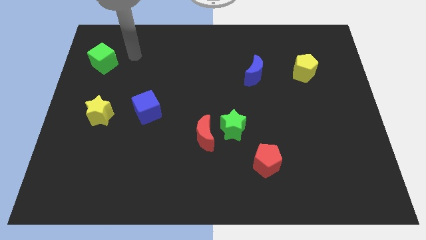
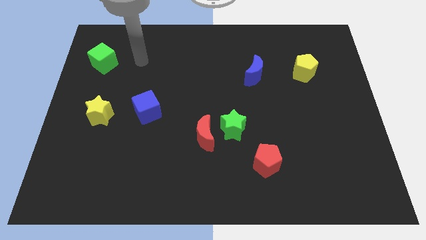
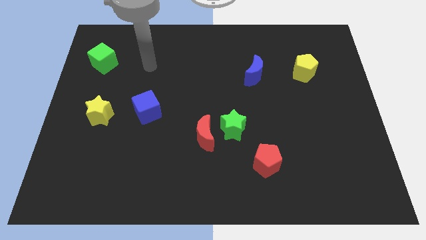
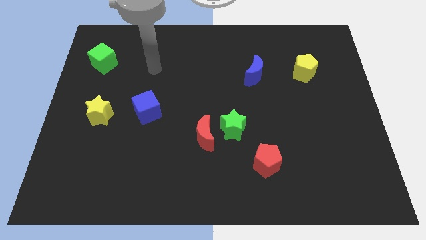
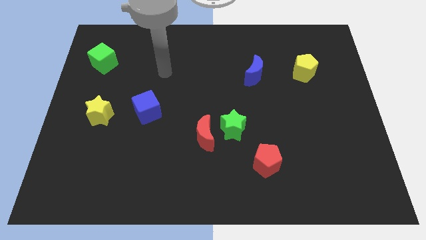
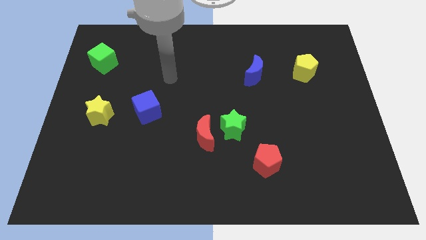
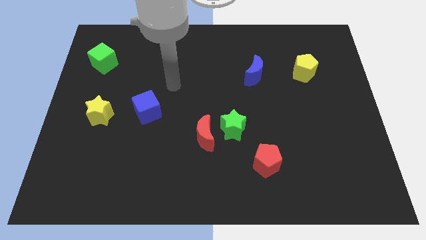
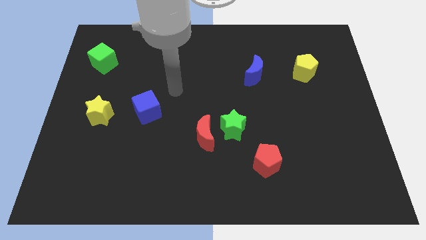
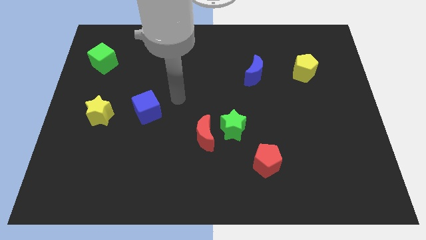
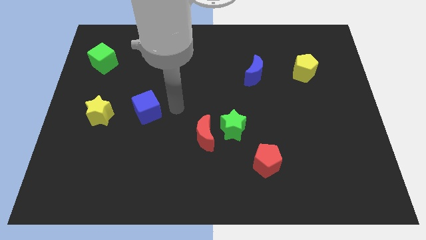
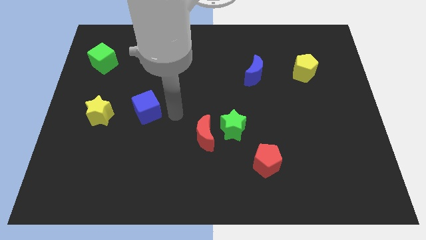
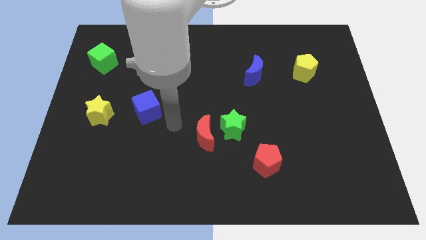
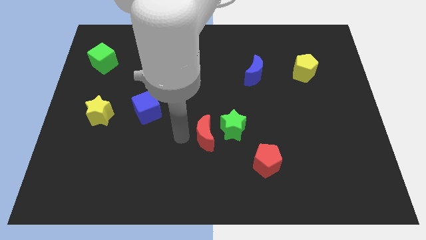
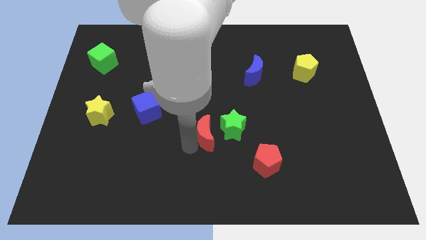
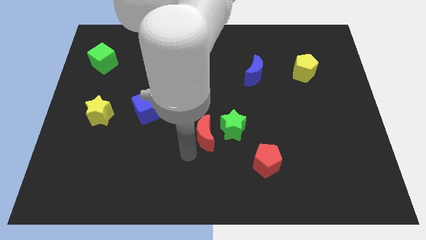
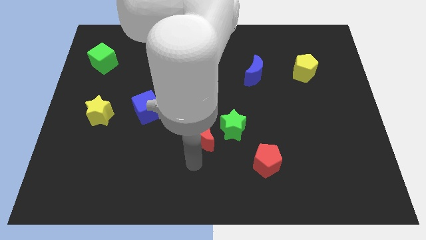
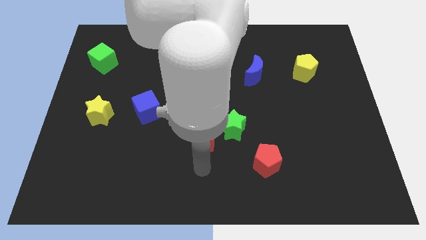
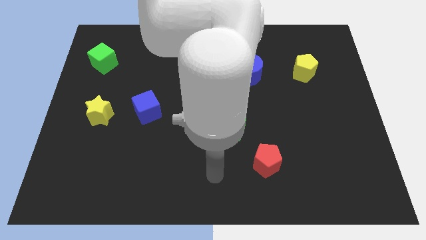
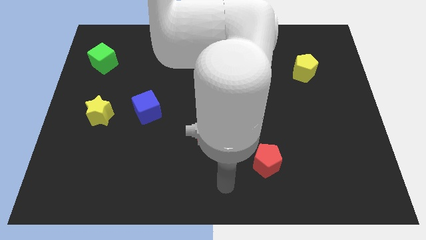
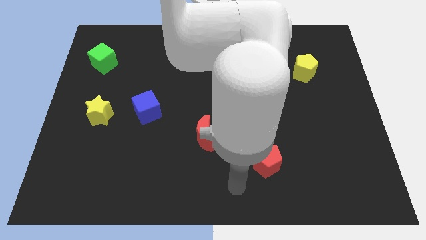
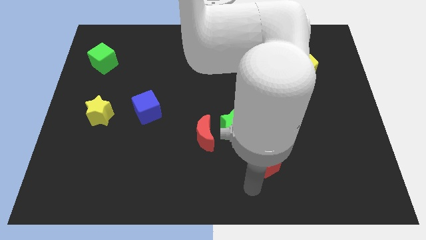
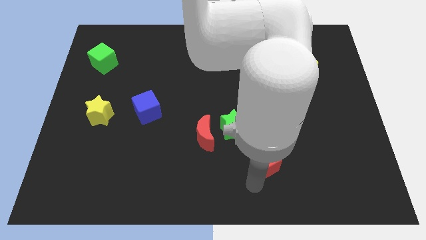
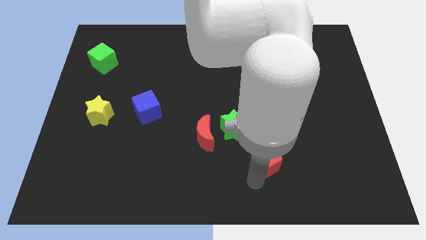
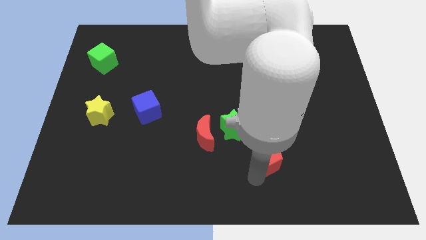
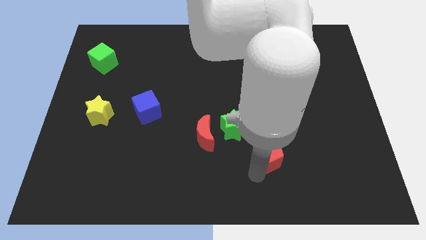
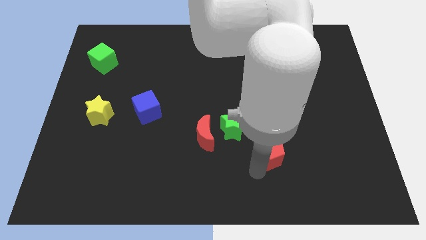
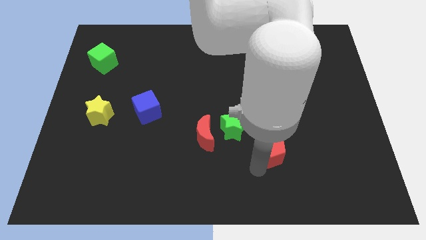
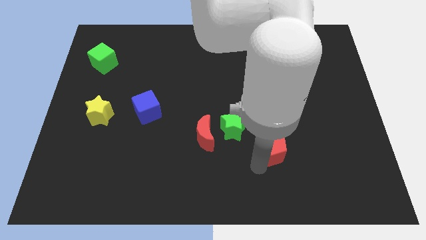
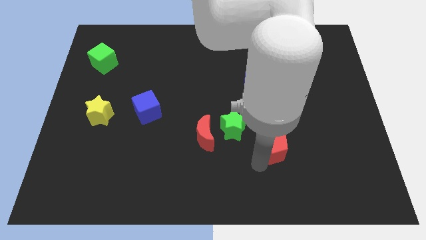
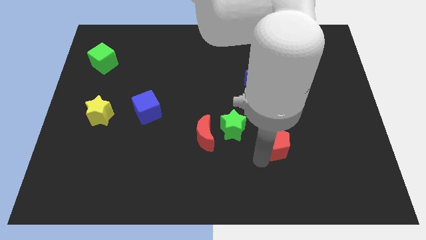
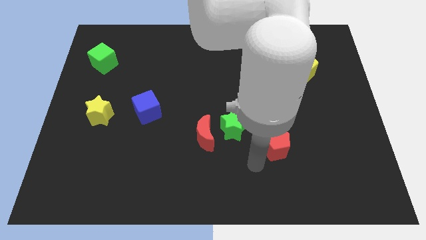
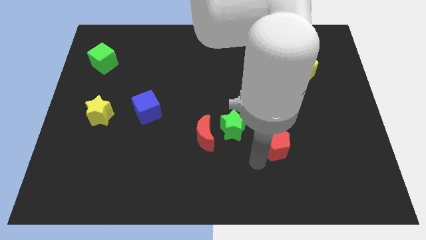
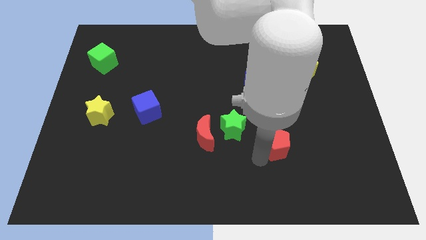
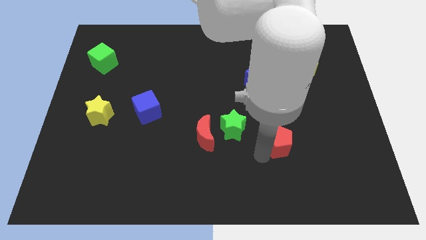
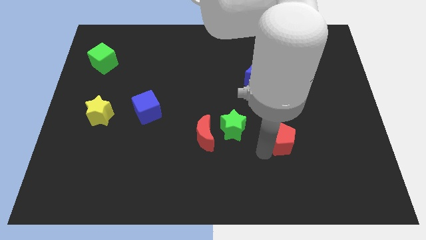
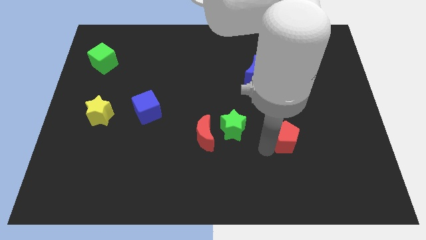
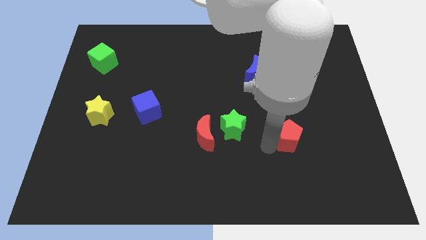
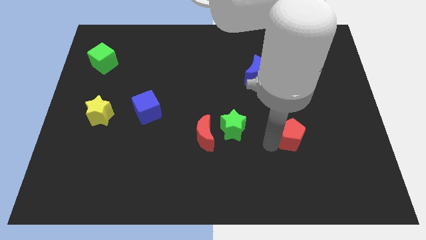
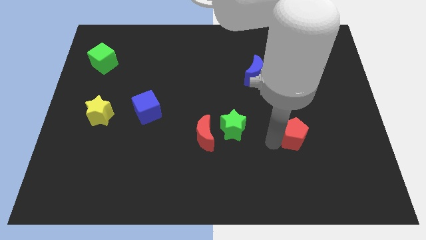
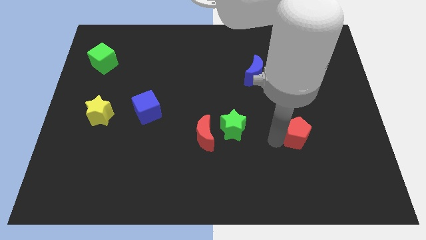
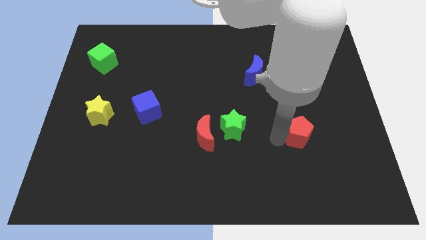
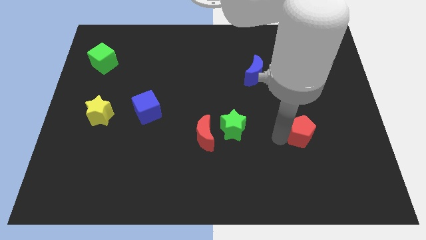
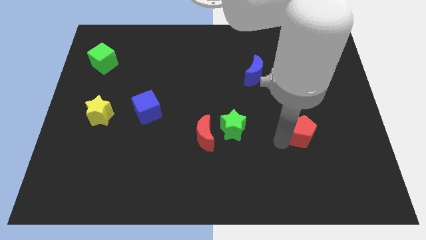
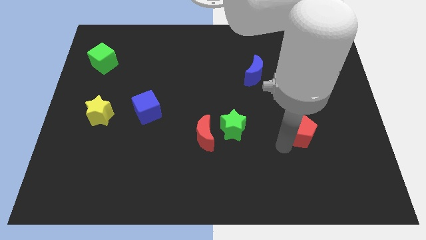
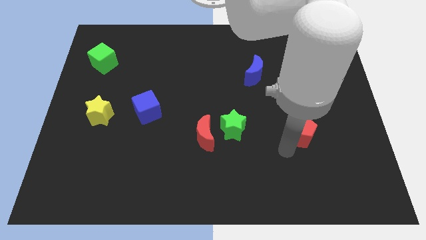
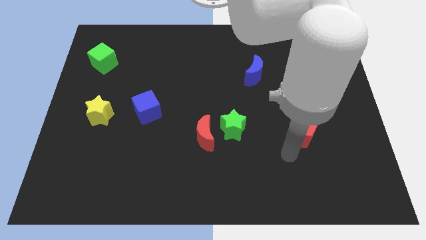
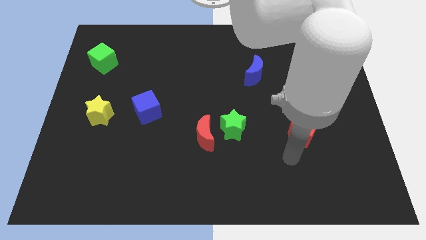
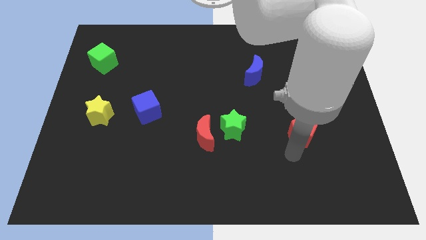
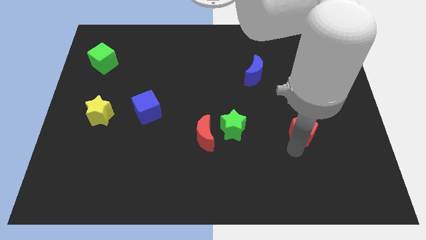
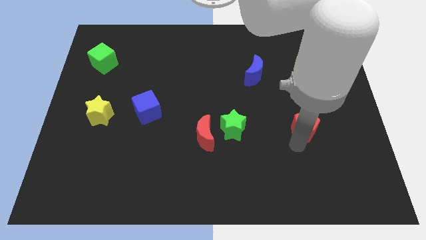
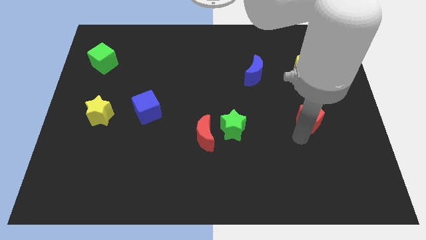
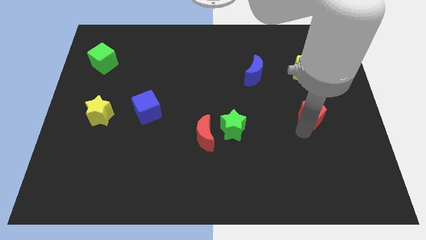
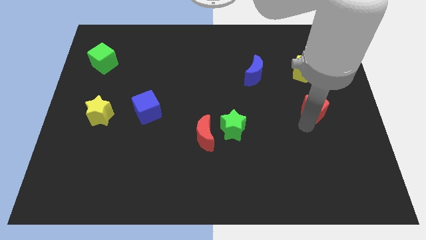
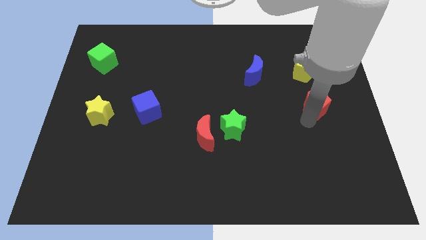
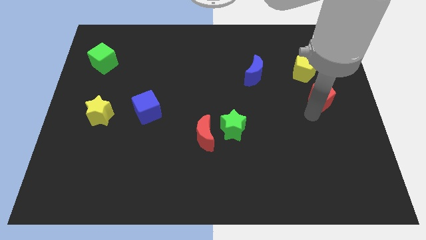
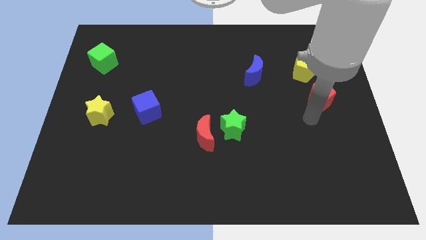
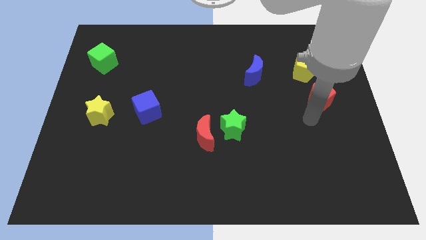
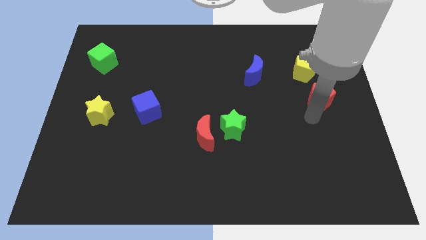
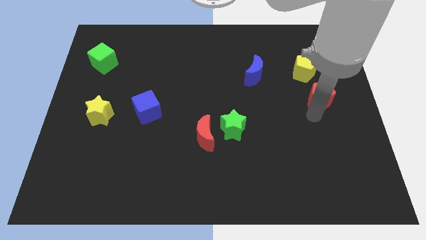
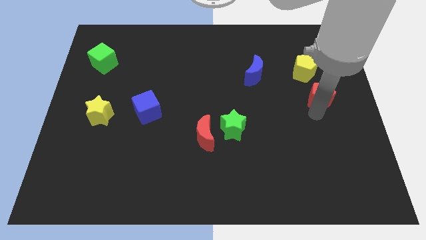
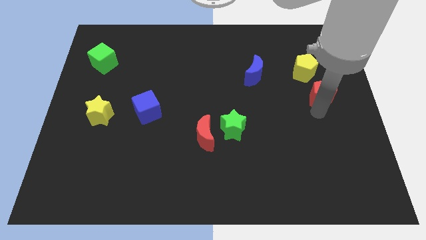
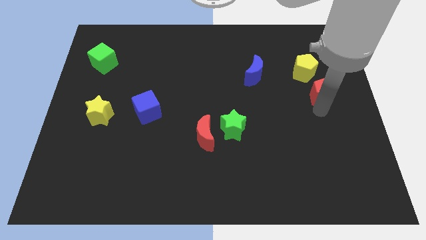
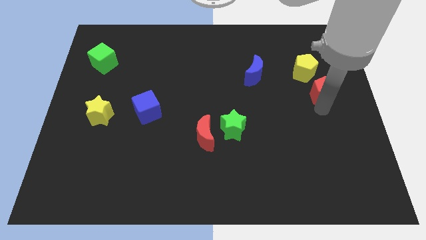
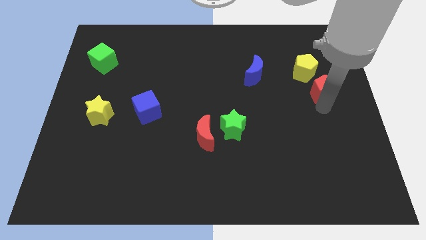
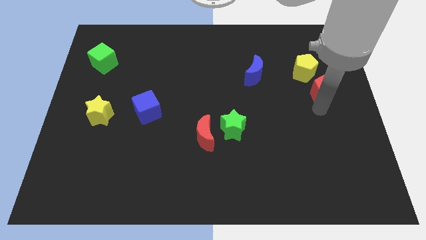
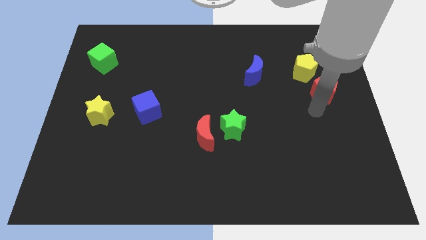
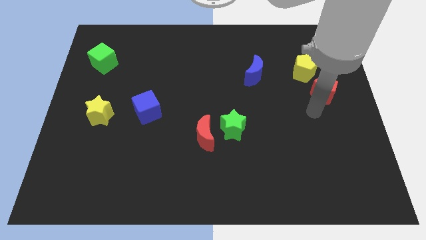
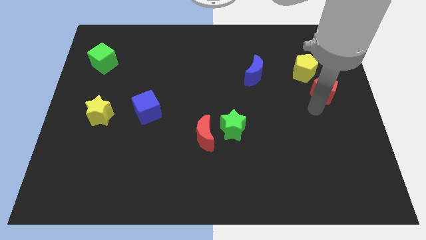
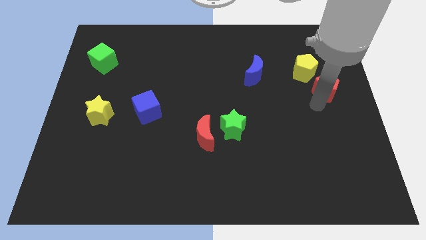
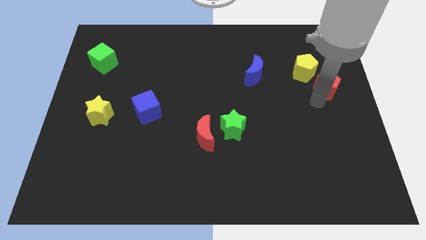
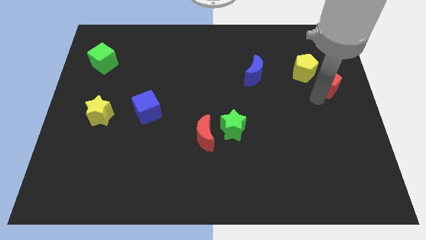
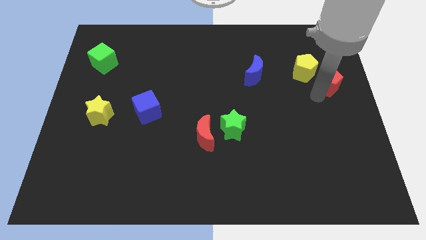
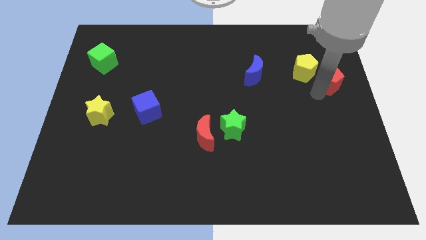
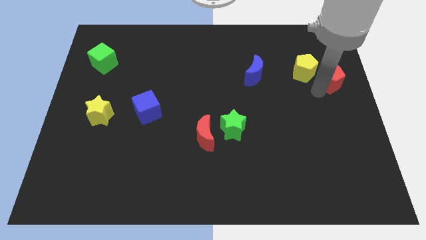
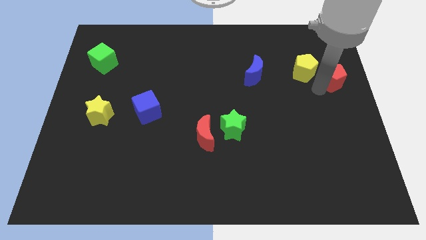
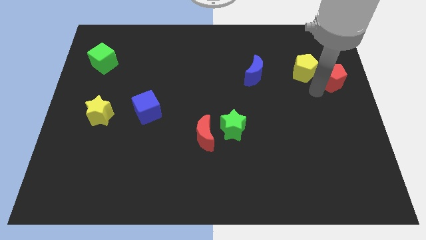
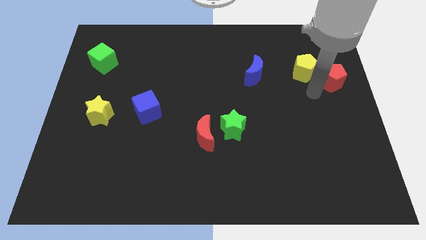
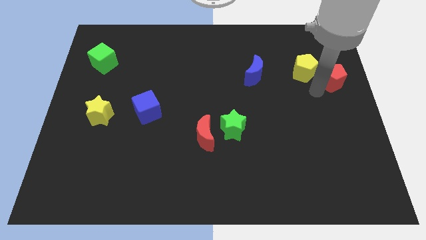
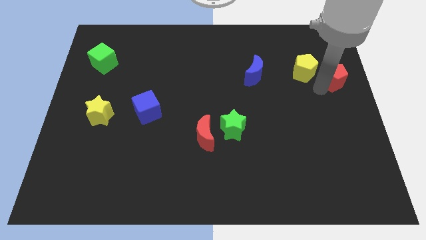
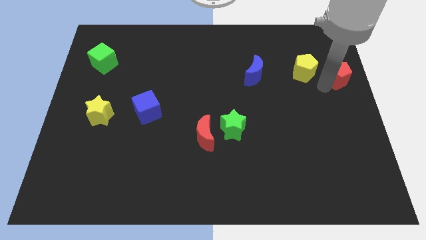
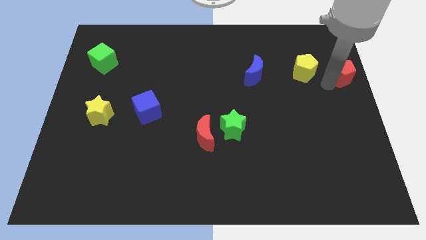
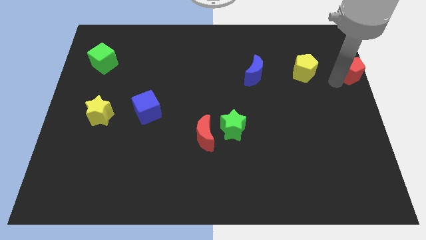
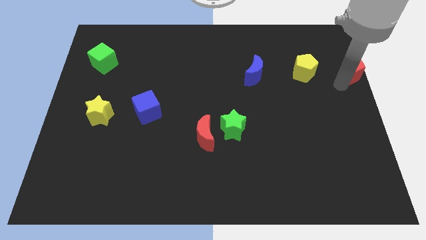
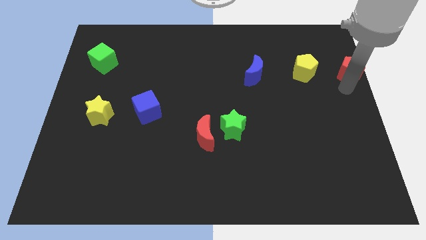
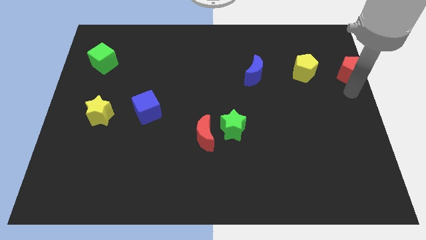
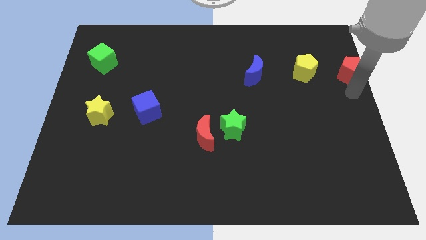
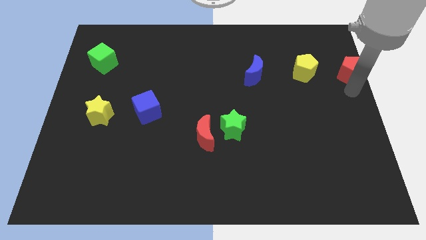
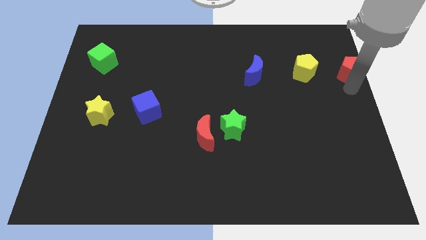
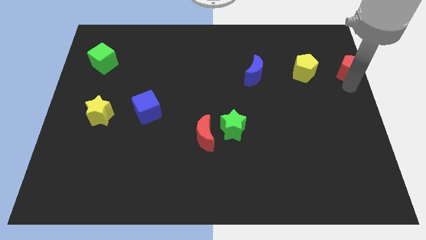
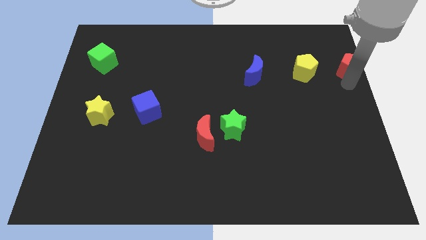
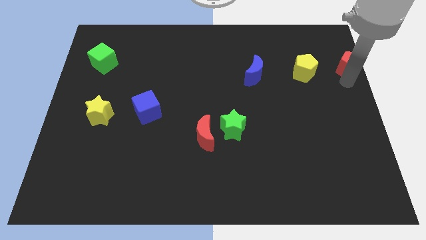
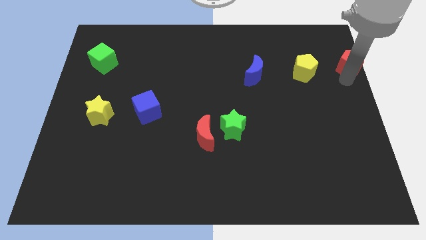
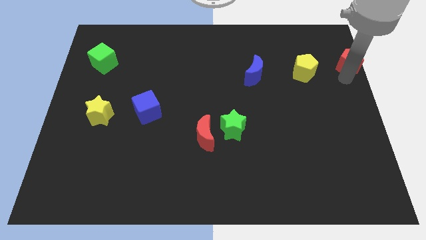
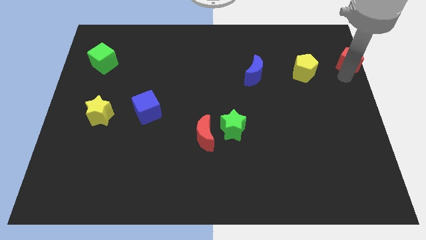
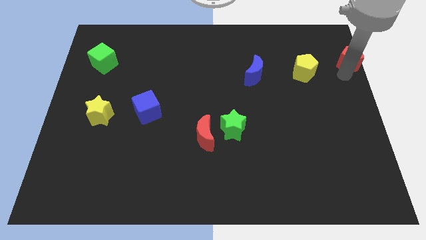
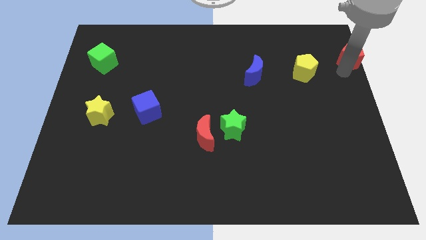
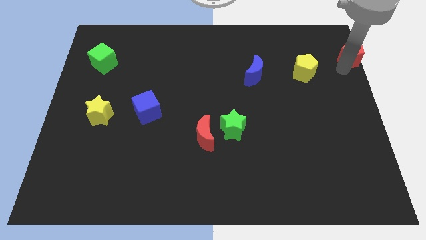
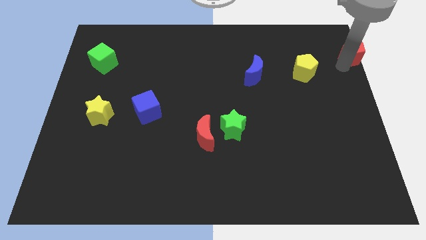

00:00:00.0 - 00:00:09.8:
put the red pentagon to the top right of the board
